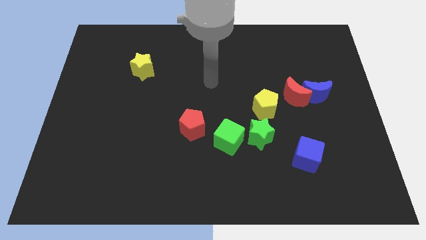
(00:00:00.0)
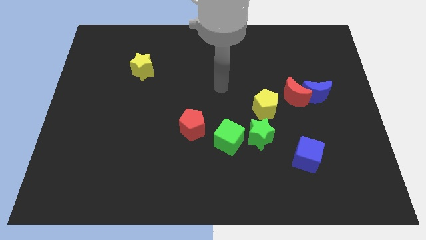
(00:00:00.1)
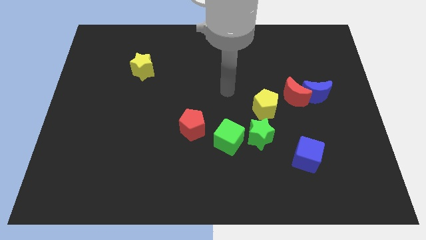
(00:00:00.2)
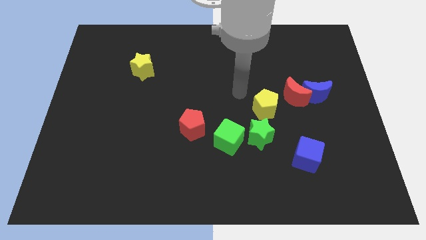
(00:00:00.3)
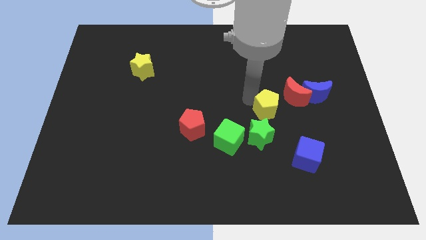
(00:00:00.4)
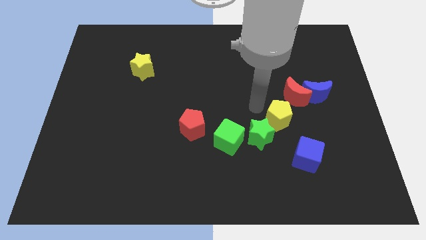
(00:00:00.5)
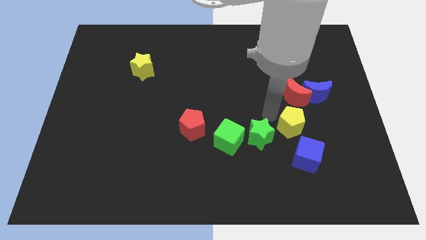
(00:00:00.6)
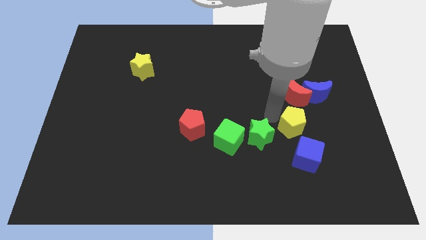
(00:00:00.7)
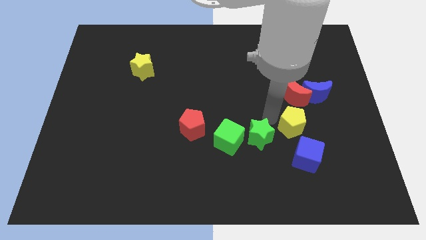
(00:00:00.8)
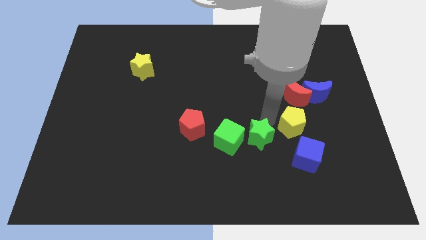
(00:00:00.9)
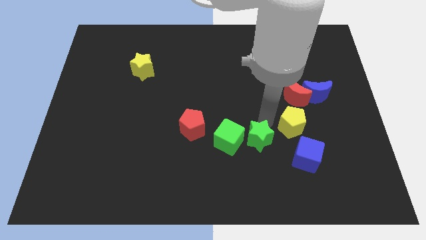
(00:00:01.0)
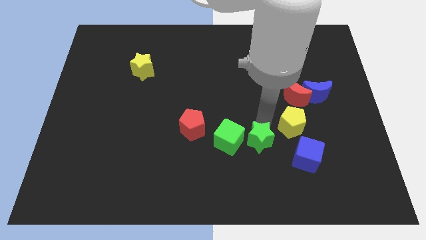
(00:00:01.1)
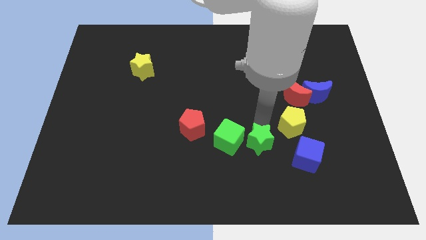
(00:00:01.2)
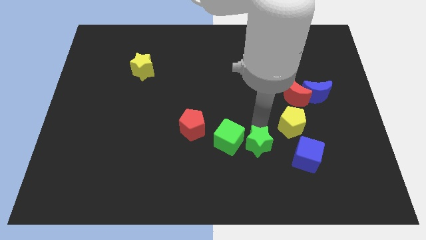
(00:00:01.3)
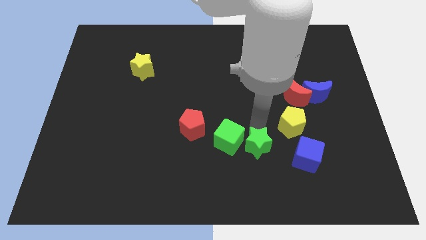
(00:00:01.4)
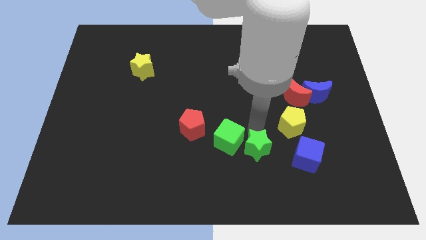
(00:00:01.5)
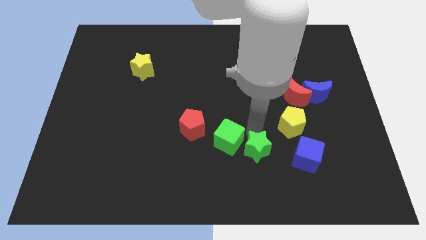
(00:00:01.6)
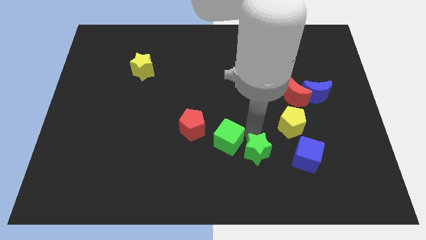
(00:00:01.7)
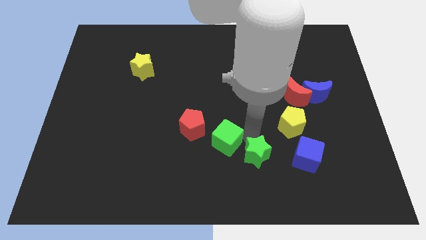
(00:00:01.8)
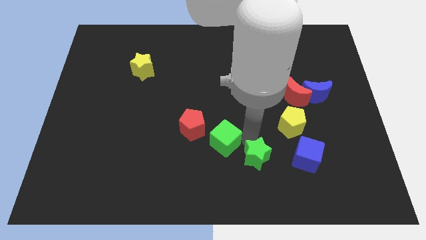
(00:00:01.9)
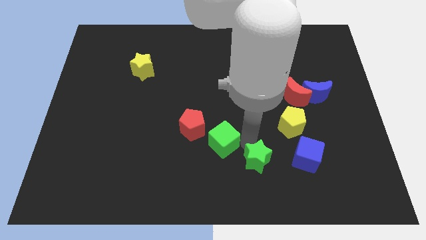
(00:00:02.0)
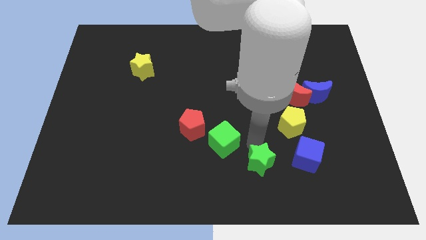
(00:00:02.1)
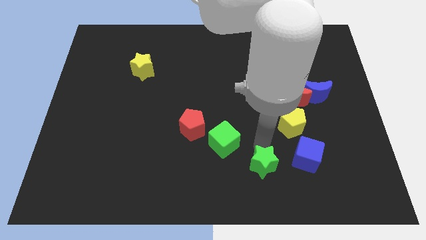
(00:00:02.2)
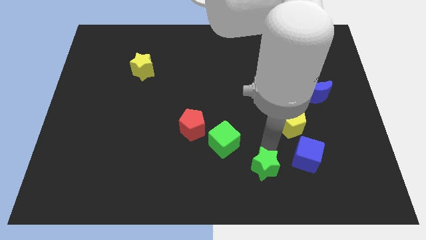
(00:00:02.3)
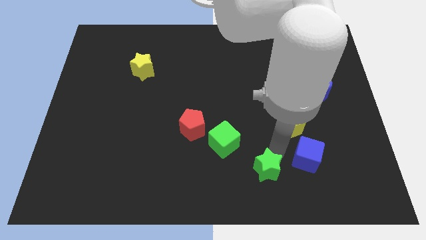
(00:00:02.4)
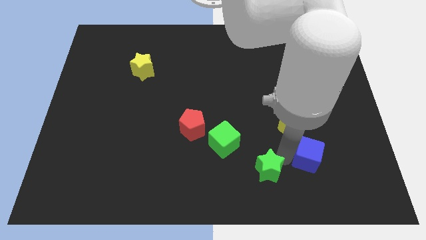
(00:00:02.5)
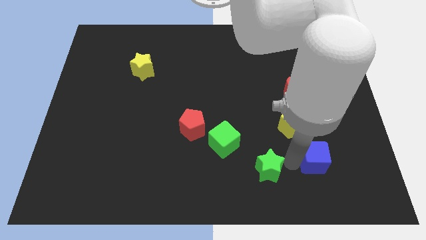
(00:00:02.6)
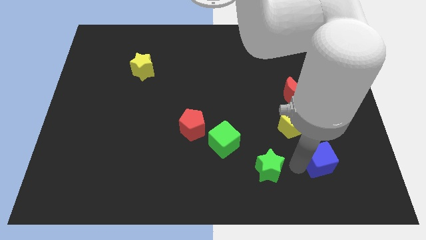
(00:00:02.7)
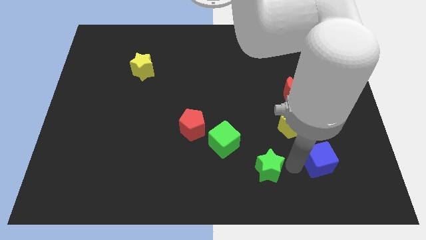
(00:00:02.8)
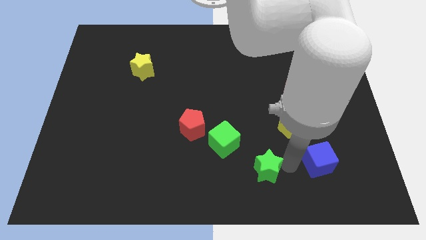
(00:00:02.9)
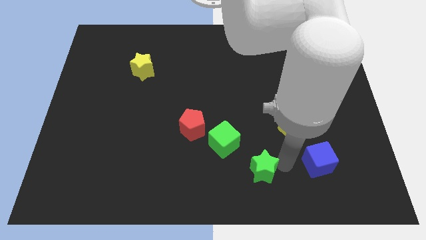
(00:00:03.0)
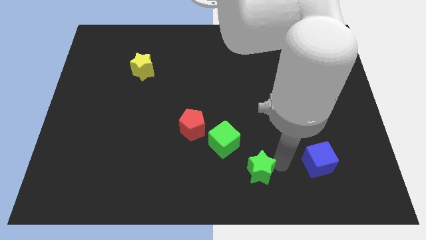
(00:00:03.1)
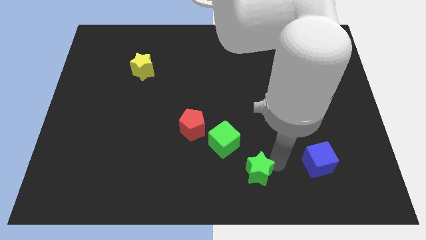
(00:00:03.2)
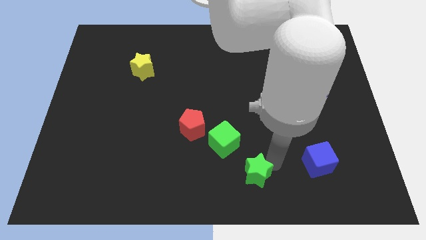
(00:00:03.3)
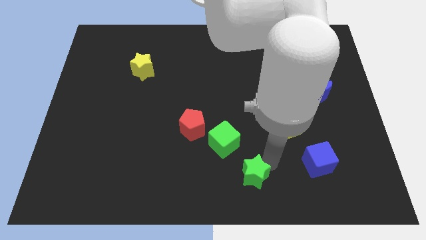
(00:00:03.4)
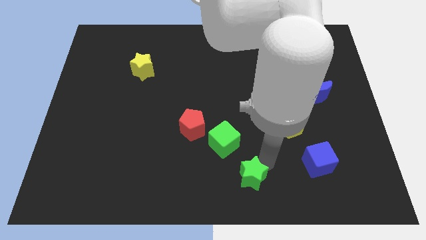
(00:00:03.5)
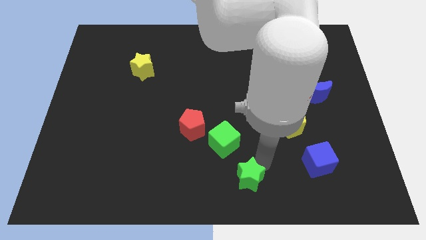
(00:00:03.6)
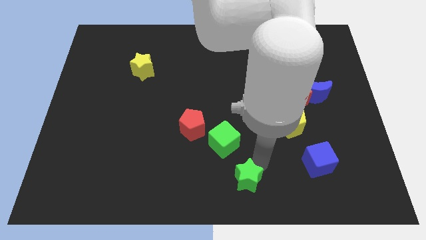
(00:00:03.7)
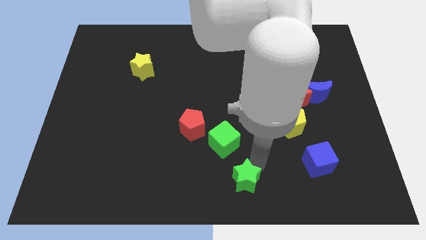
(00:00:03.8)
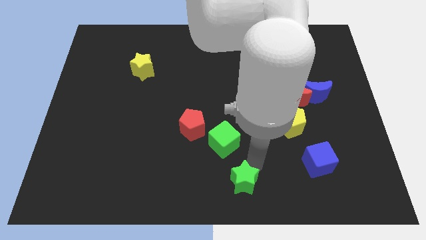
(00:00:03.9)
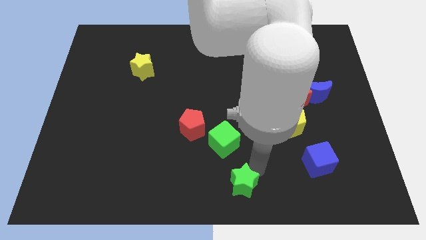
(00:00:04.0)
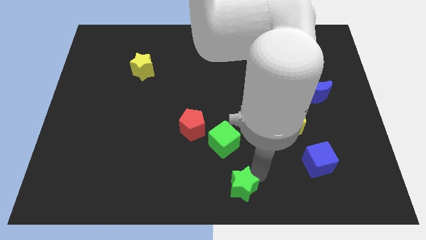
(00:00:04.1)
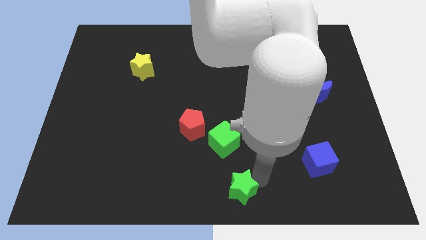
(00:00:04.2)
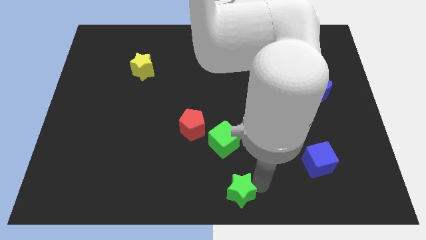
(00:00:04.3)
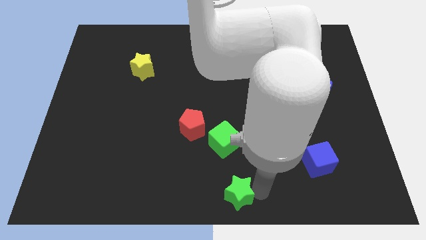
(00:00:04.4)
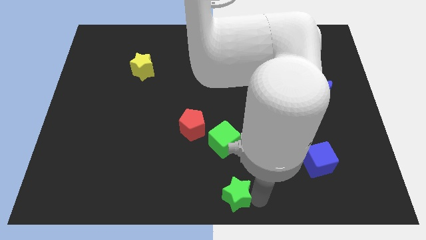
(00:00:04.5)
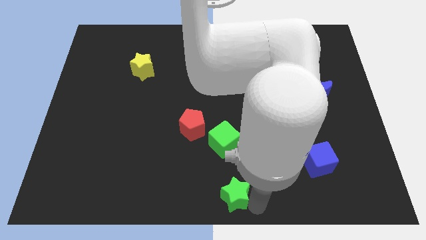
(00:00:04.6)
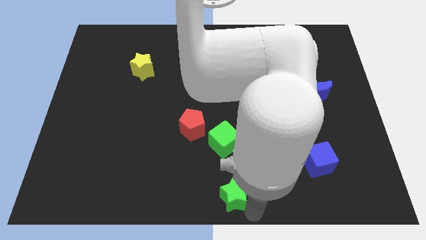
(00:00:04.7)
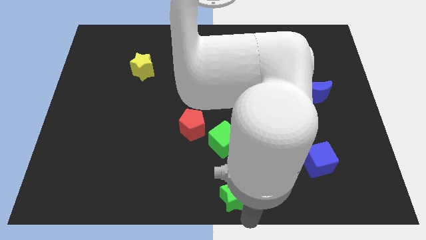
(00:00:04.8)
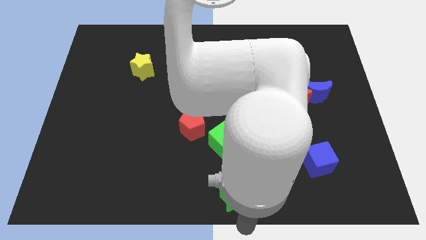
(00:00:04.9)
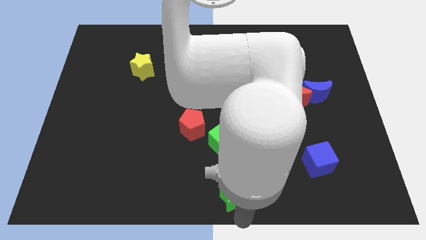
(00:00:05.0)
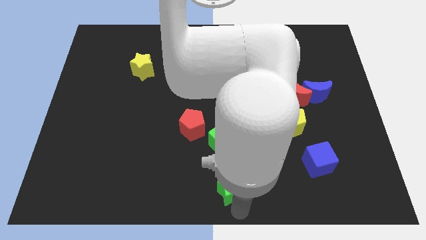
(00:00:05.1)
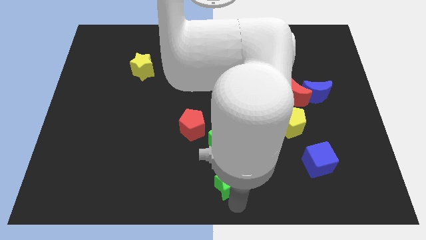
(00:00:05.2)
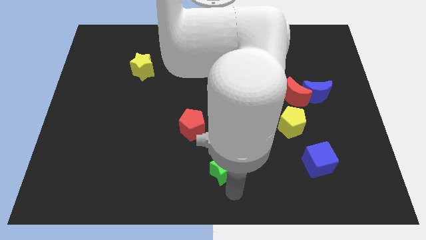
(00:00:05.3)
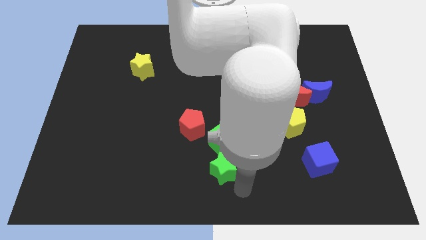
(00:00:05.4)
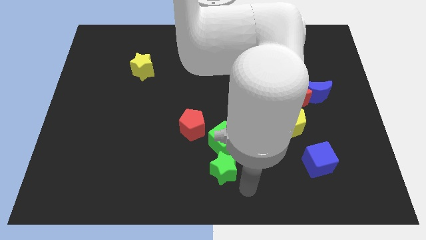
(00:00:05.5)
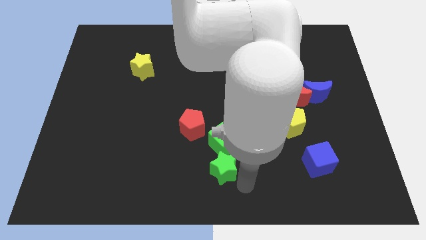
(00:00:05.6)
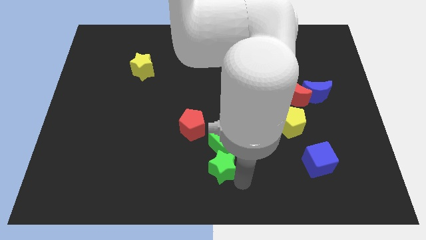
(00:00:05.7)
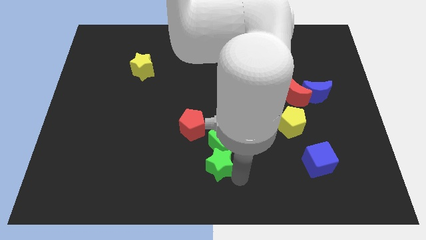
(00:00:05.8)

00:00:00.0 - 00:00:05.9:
move the green star a bit to the left

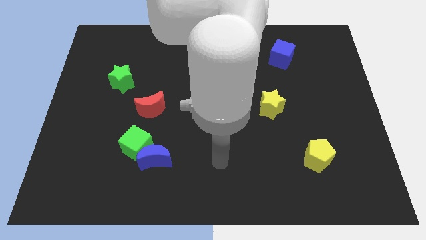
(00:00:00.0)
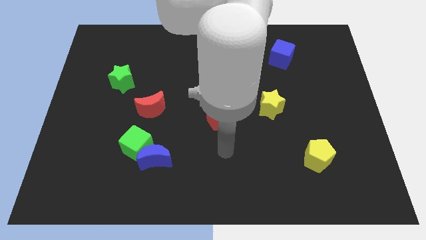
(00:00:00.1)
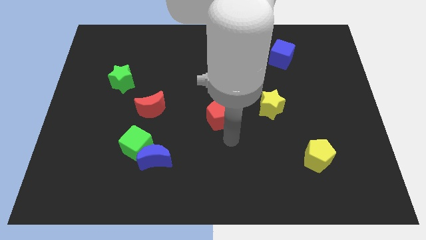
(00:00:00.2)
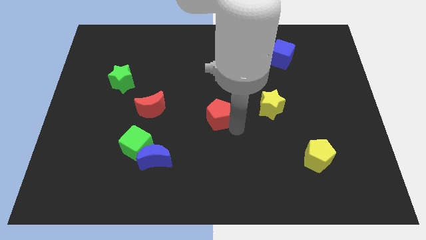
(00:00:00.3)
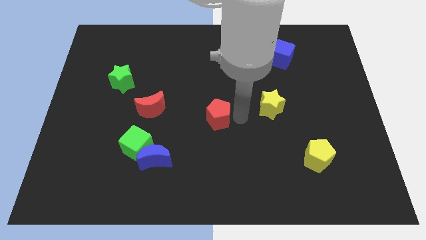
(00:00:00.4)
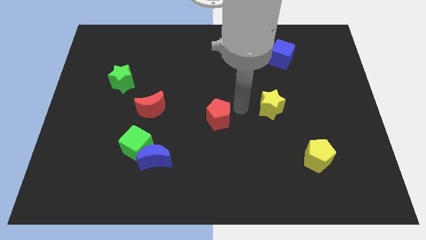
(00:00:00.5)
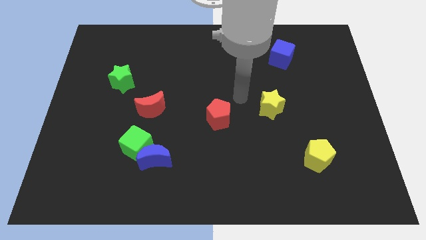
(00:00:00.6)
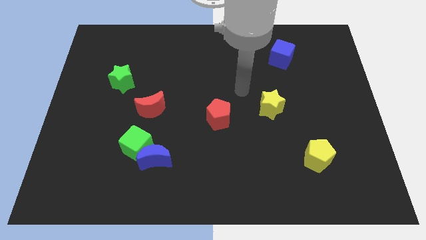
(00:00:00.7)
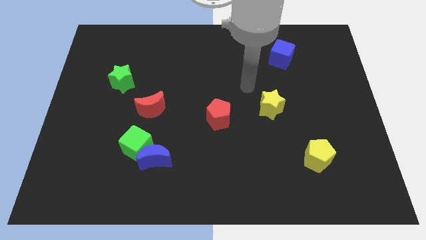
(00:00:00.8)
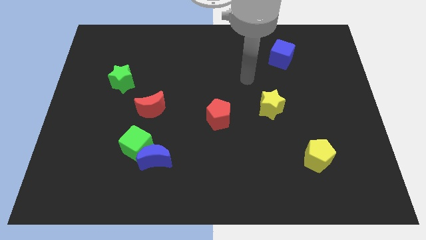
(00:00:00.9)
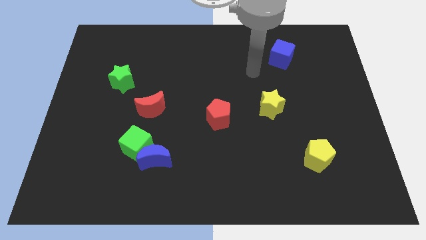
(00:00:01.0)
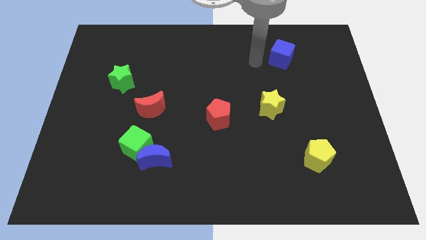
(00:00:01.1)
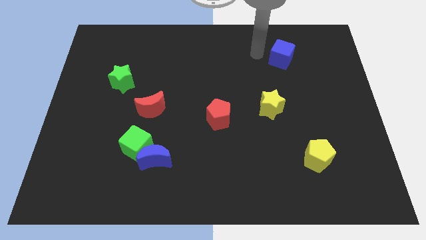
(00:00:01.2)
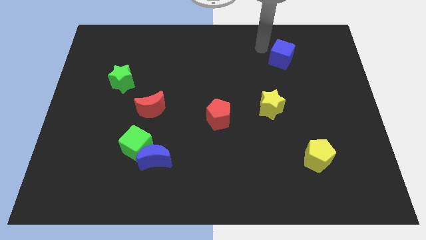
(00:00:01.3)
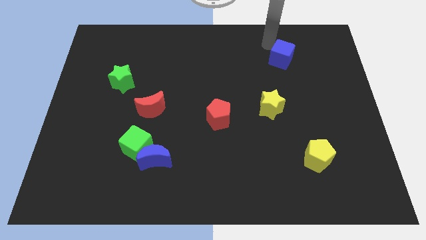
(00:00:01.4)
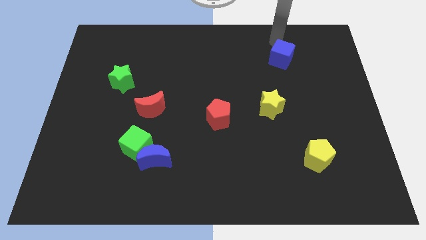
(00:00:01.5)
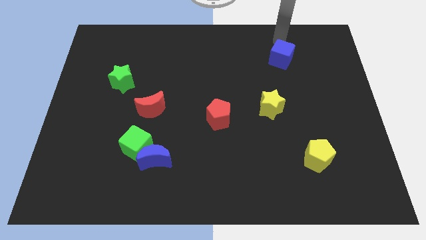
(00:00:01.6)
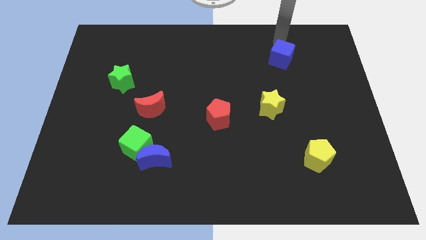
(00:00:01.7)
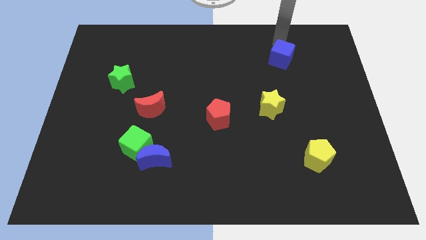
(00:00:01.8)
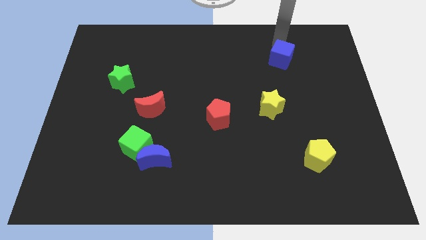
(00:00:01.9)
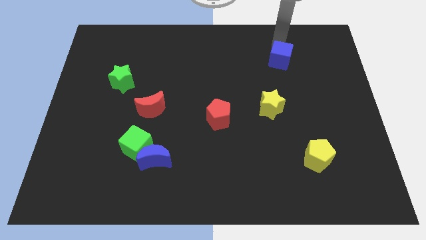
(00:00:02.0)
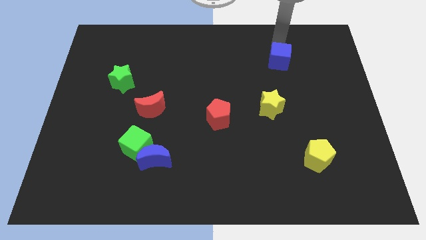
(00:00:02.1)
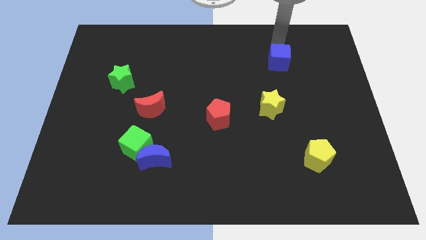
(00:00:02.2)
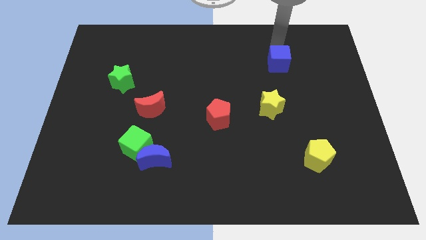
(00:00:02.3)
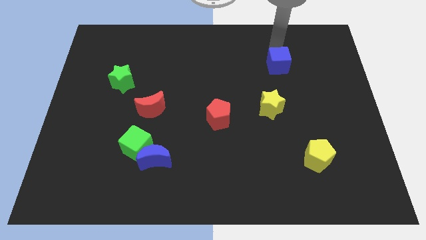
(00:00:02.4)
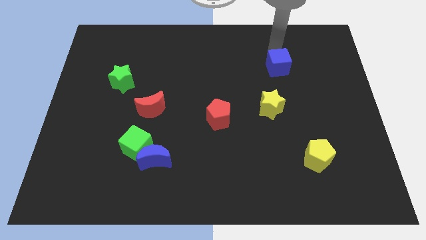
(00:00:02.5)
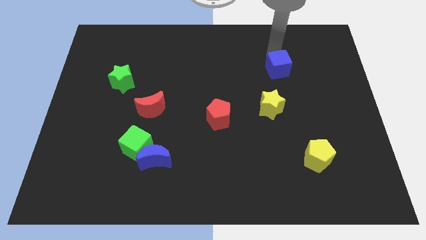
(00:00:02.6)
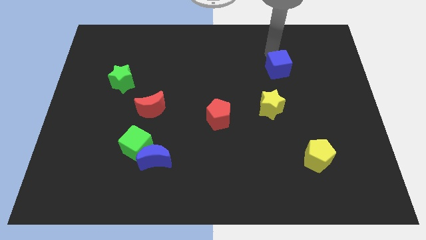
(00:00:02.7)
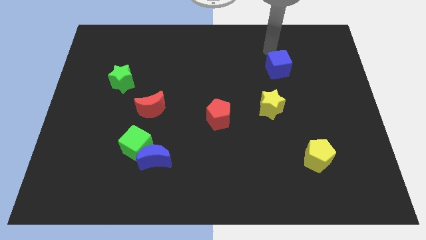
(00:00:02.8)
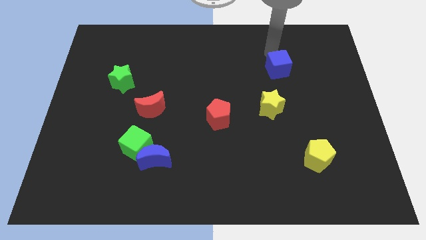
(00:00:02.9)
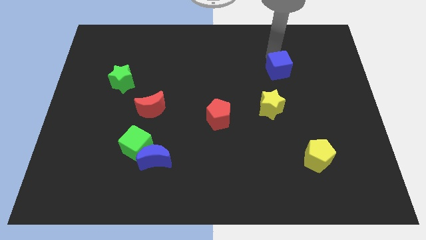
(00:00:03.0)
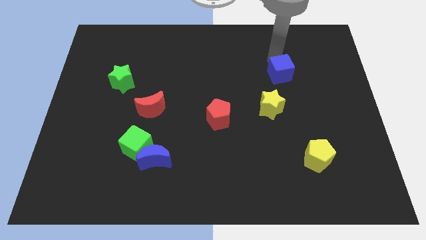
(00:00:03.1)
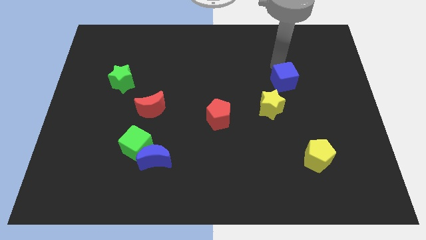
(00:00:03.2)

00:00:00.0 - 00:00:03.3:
slightly push the blue cube down
